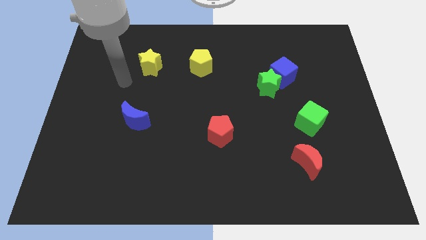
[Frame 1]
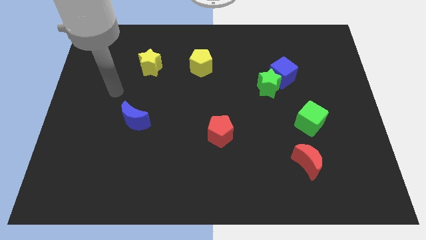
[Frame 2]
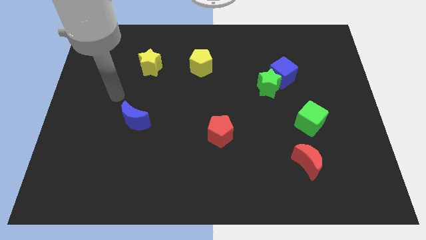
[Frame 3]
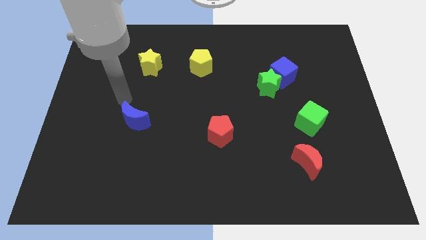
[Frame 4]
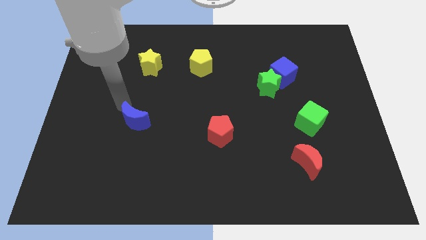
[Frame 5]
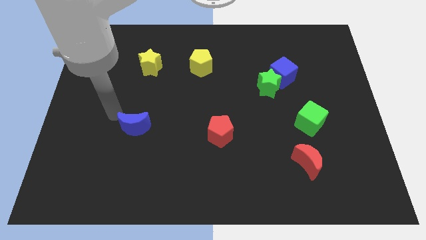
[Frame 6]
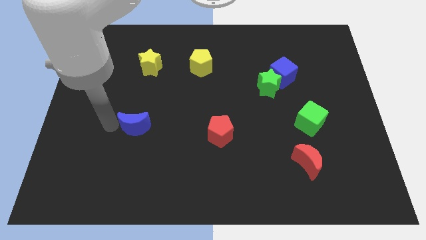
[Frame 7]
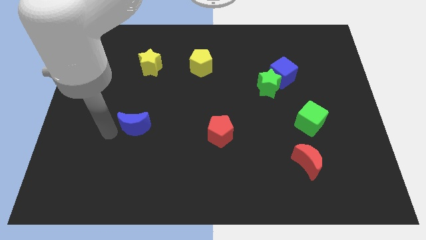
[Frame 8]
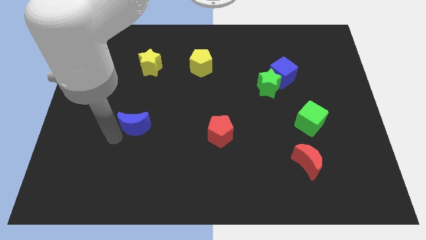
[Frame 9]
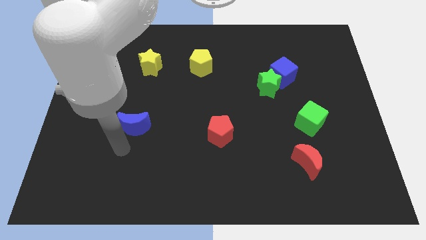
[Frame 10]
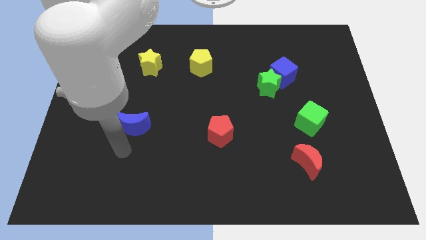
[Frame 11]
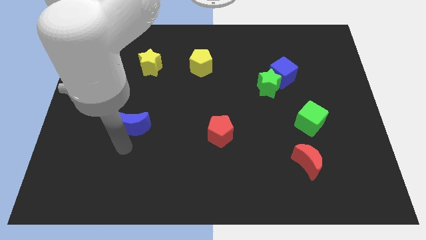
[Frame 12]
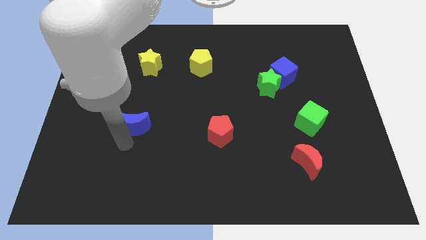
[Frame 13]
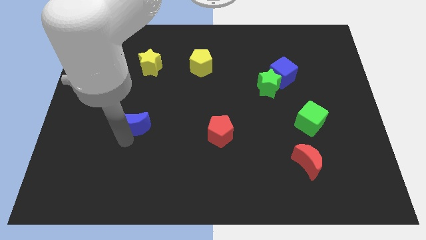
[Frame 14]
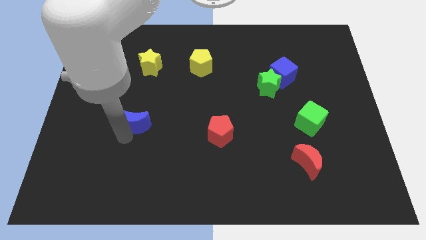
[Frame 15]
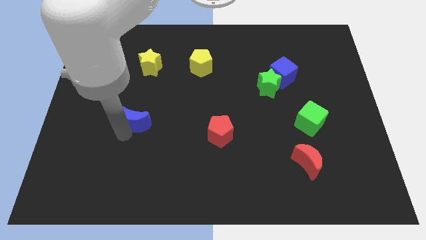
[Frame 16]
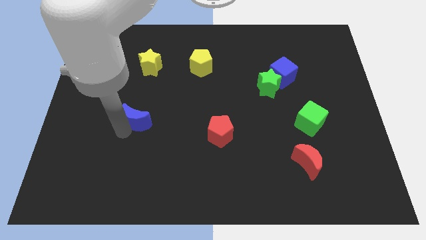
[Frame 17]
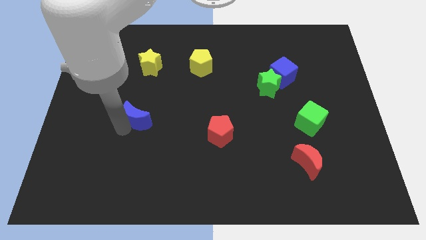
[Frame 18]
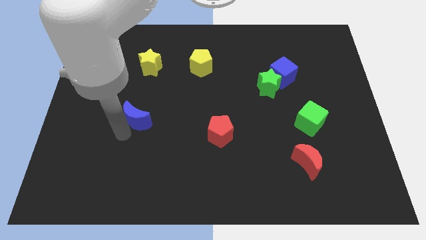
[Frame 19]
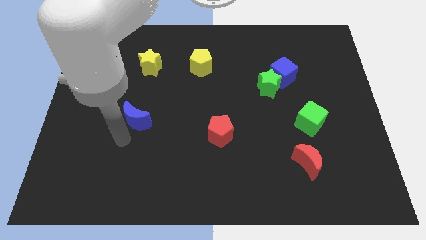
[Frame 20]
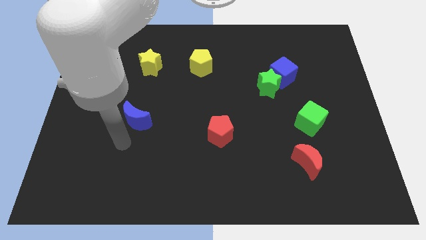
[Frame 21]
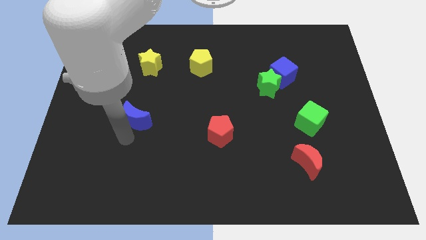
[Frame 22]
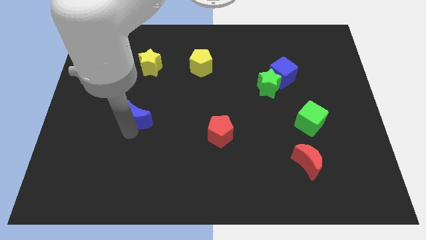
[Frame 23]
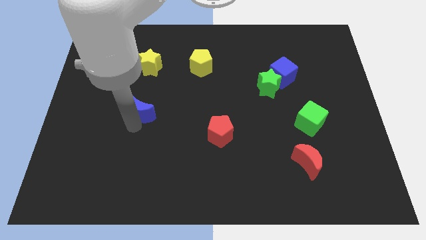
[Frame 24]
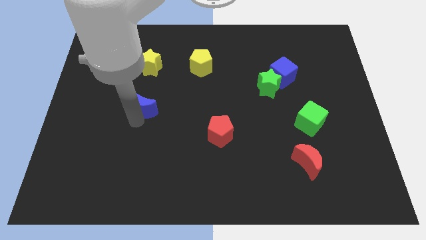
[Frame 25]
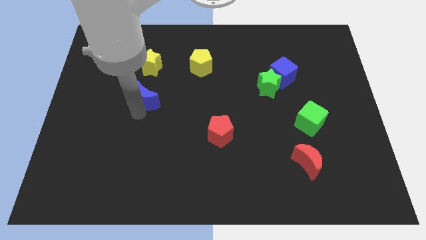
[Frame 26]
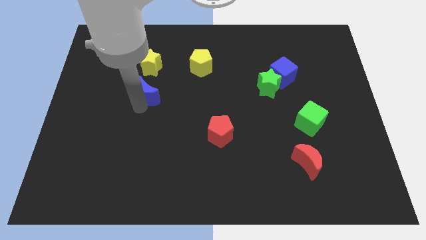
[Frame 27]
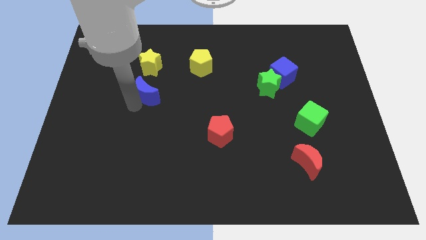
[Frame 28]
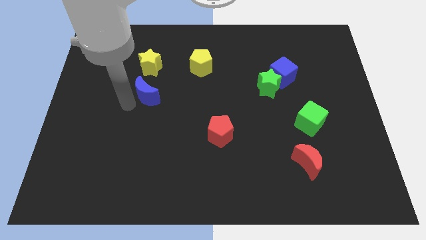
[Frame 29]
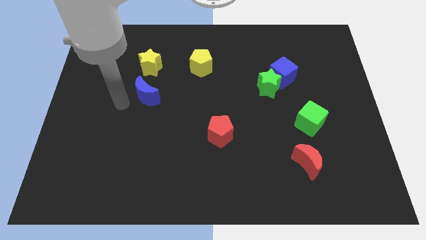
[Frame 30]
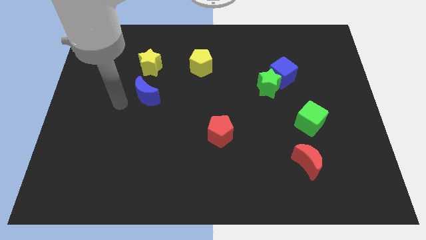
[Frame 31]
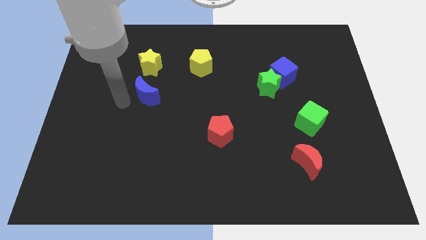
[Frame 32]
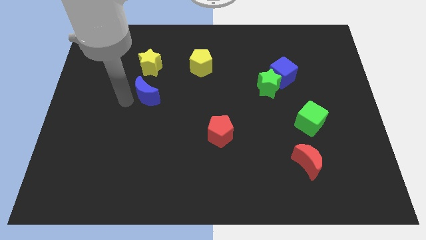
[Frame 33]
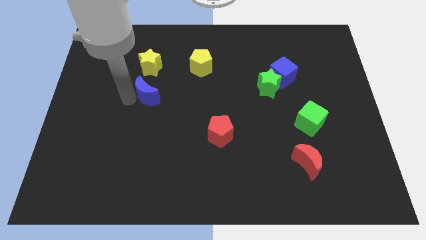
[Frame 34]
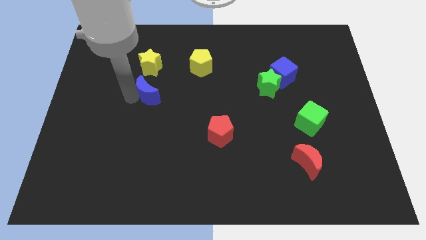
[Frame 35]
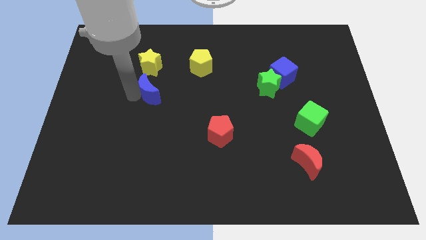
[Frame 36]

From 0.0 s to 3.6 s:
push the blue moon upwards and right diagonally a bit

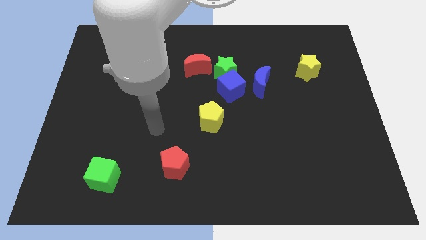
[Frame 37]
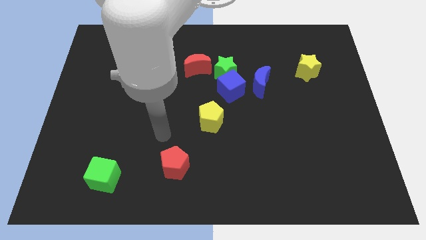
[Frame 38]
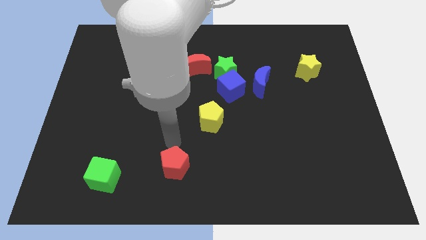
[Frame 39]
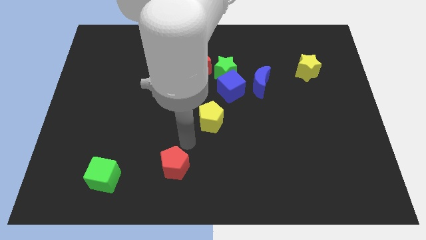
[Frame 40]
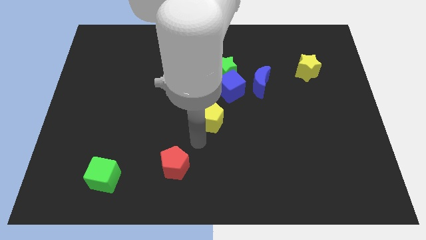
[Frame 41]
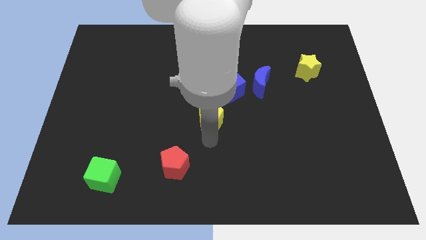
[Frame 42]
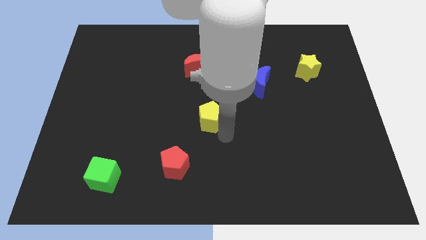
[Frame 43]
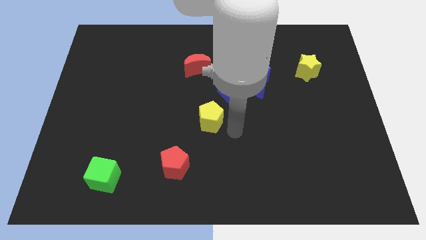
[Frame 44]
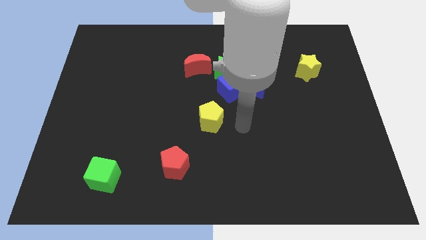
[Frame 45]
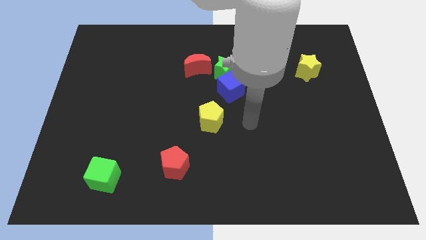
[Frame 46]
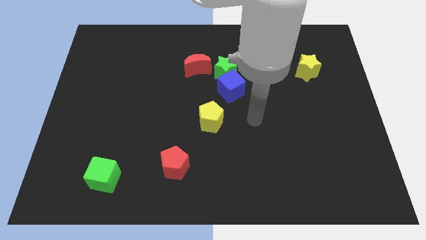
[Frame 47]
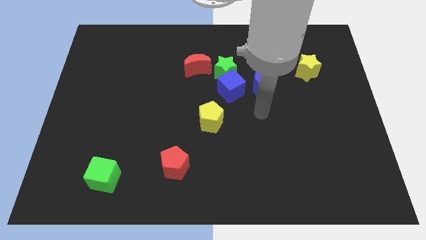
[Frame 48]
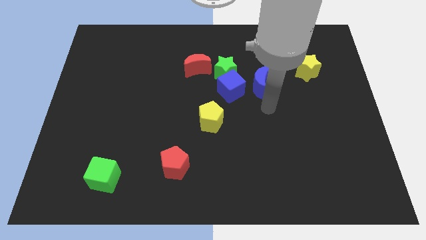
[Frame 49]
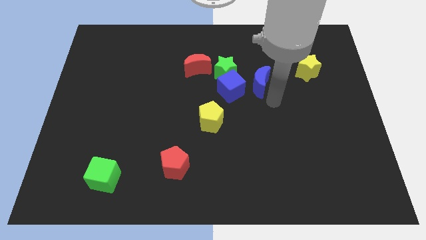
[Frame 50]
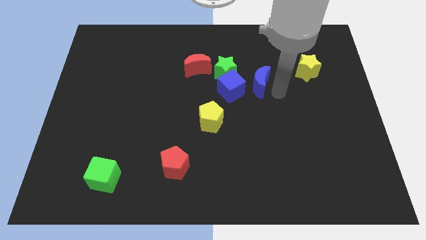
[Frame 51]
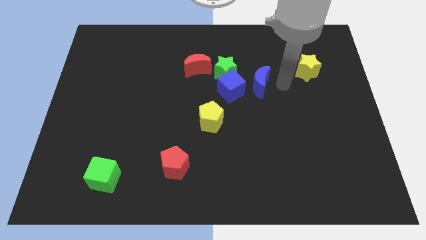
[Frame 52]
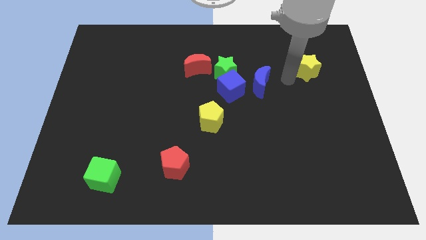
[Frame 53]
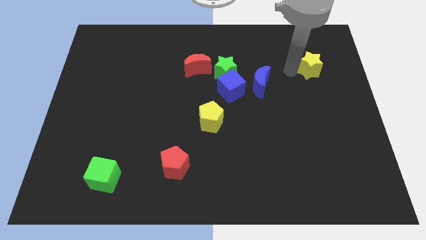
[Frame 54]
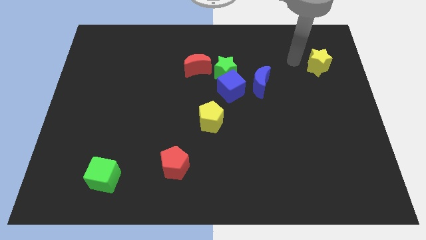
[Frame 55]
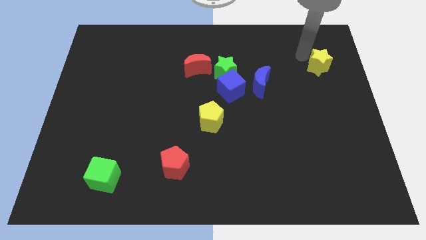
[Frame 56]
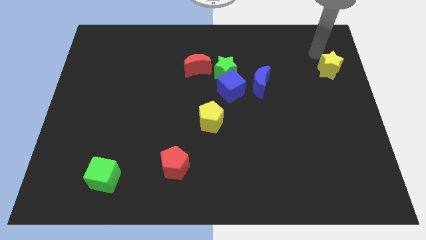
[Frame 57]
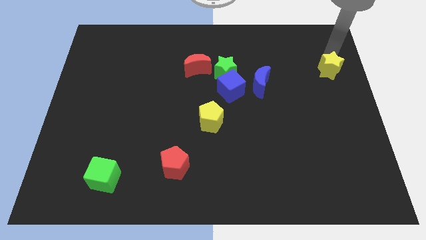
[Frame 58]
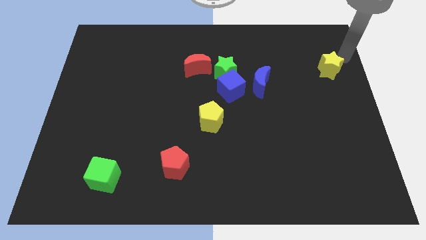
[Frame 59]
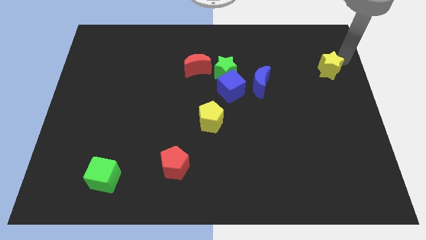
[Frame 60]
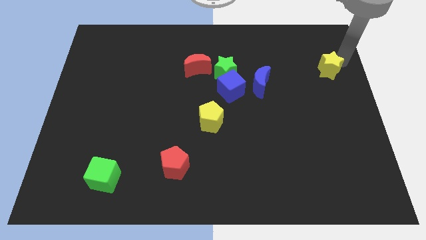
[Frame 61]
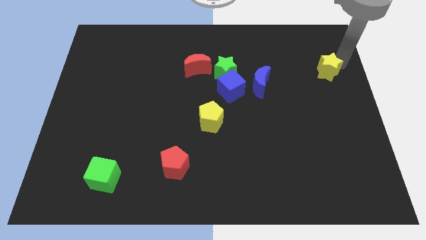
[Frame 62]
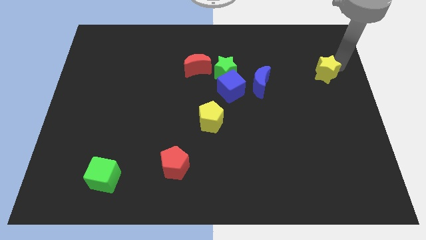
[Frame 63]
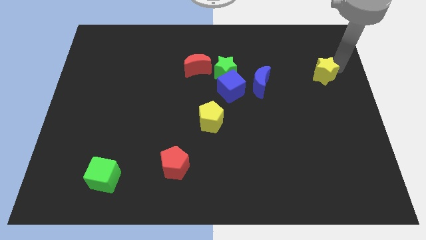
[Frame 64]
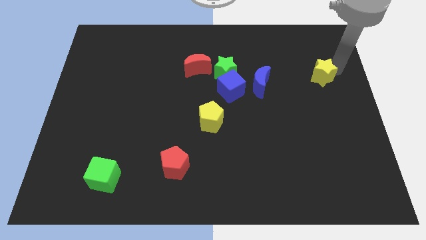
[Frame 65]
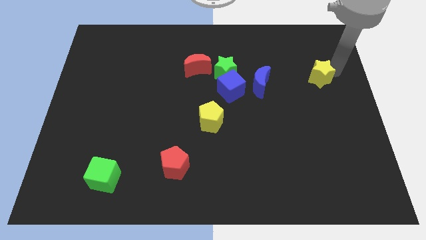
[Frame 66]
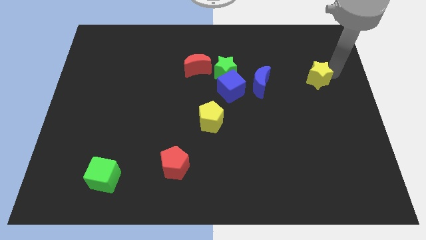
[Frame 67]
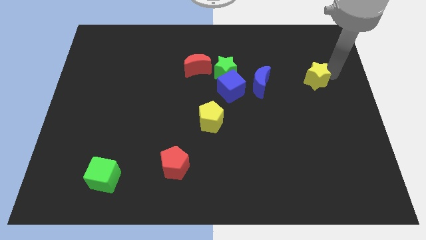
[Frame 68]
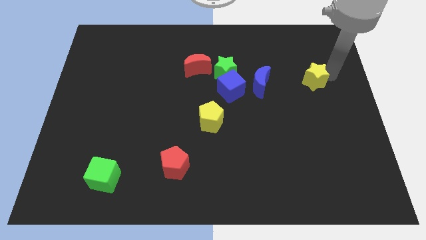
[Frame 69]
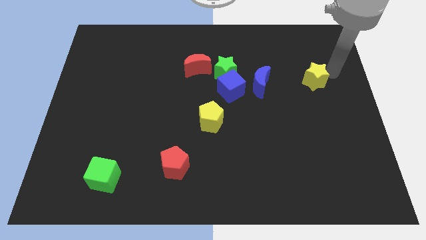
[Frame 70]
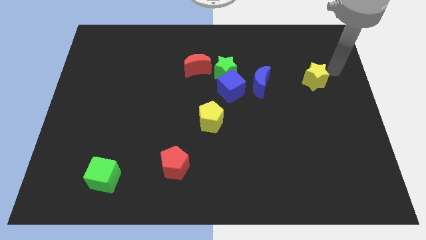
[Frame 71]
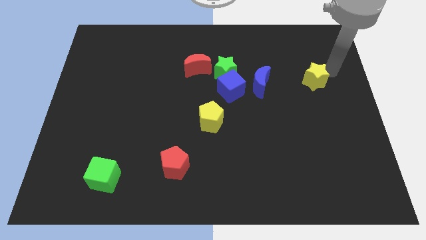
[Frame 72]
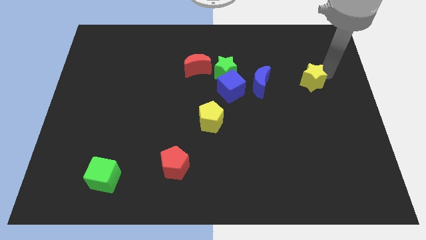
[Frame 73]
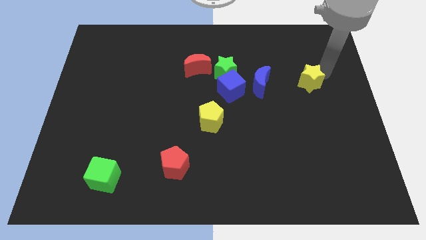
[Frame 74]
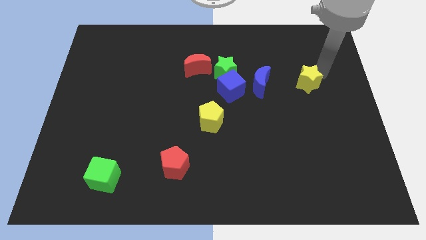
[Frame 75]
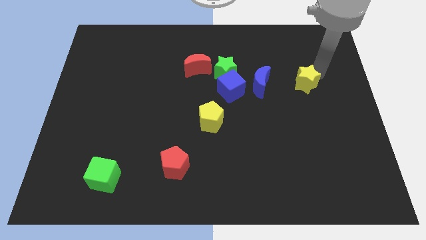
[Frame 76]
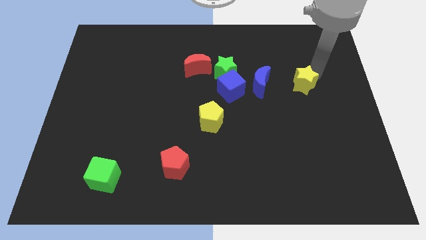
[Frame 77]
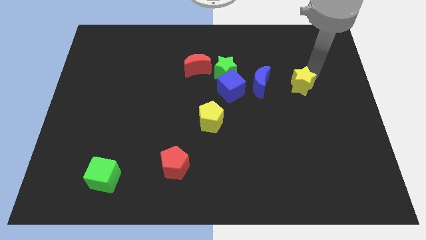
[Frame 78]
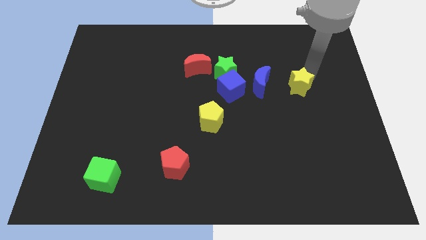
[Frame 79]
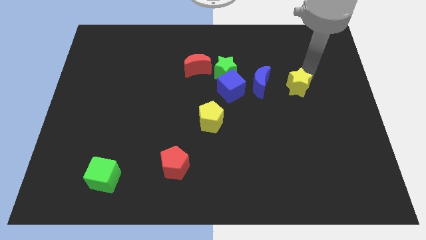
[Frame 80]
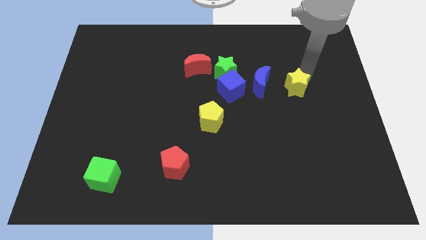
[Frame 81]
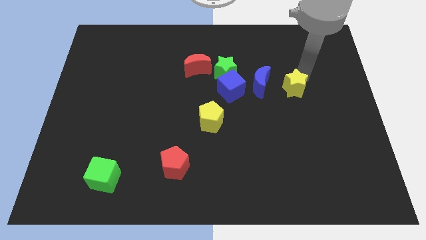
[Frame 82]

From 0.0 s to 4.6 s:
move the yellow star a bit diagonally downwards and to the left
